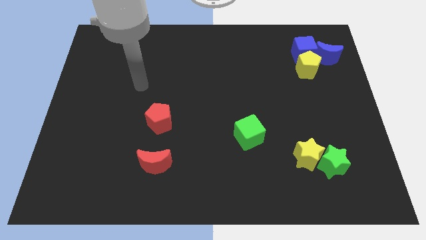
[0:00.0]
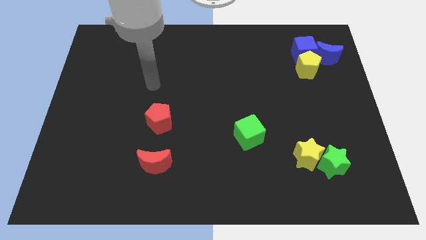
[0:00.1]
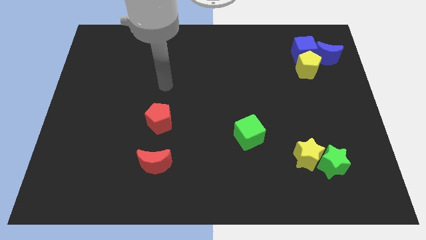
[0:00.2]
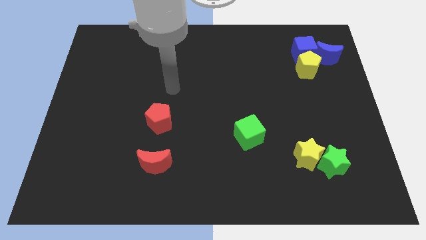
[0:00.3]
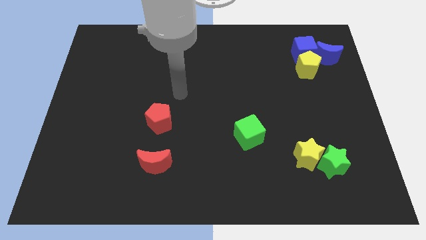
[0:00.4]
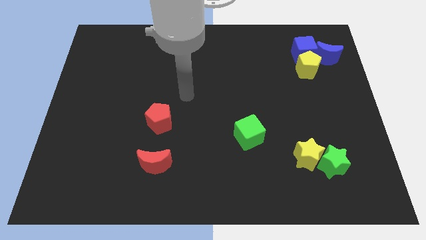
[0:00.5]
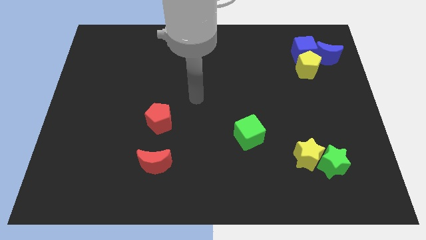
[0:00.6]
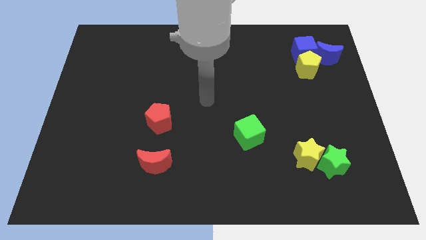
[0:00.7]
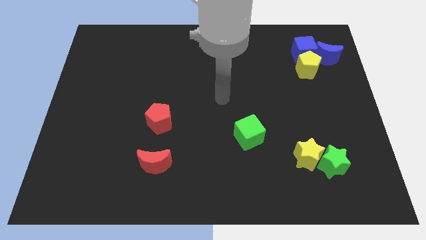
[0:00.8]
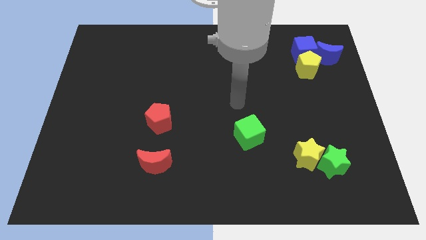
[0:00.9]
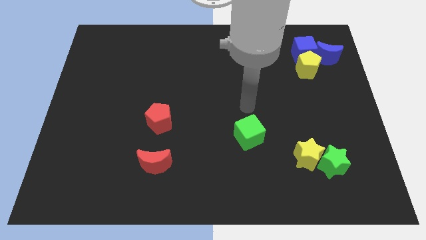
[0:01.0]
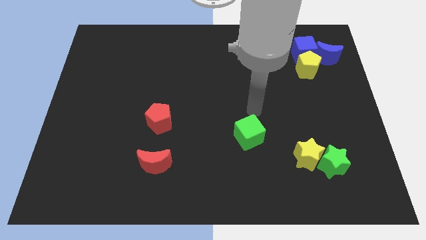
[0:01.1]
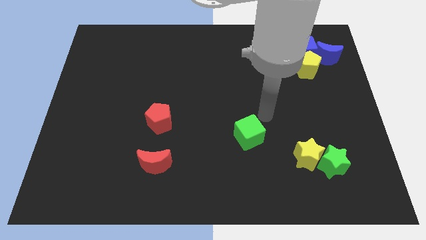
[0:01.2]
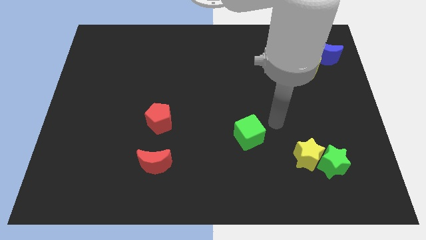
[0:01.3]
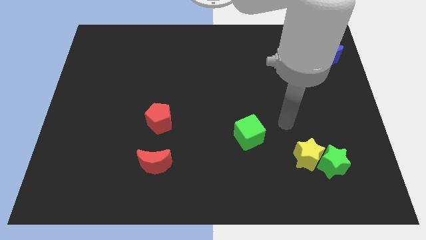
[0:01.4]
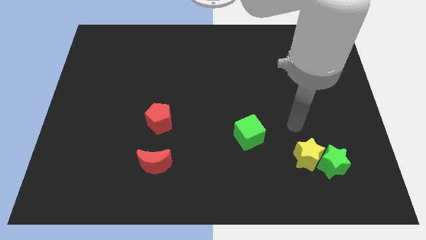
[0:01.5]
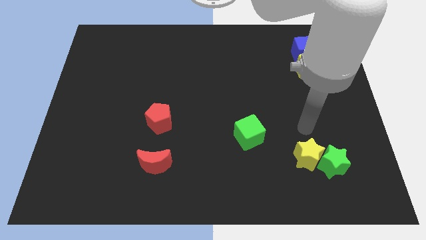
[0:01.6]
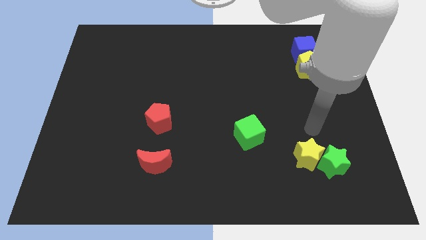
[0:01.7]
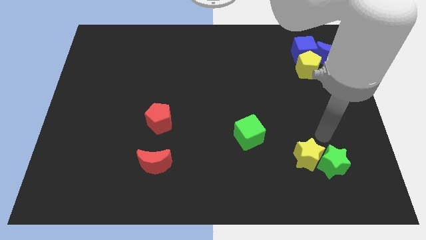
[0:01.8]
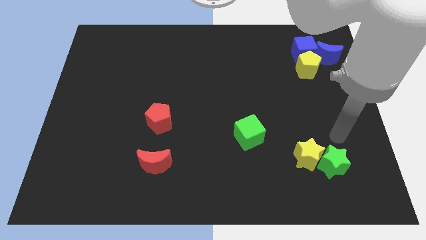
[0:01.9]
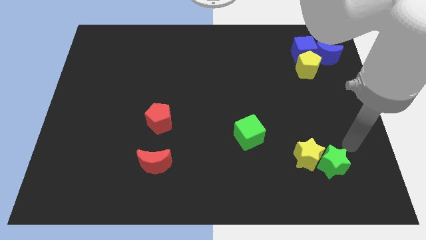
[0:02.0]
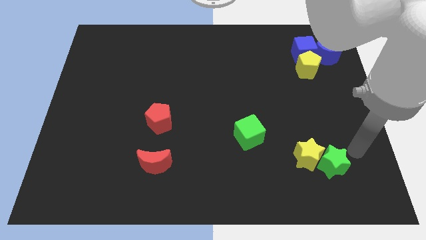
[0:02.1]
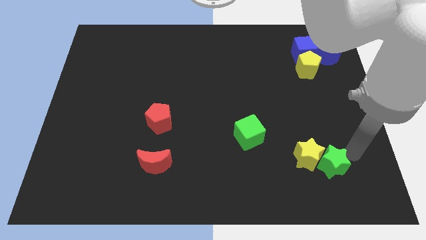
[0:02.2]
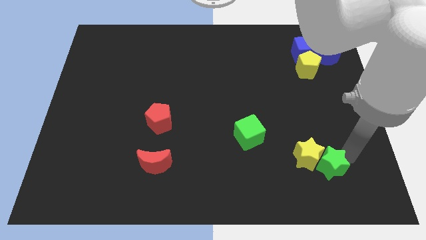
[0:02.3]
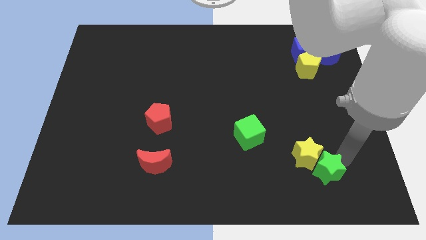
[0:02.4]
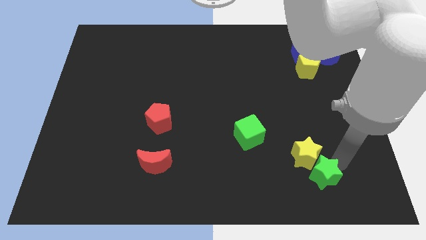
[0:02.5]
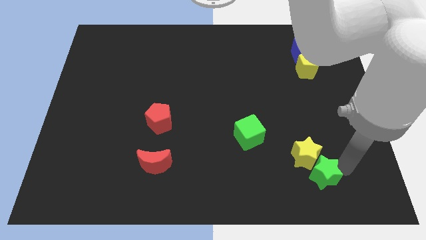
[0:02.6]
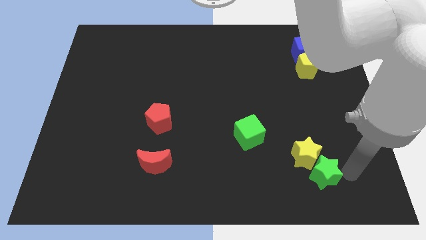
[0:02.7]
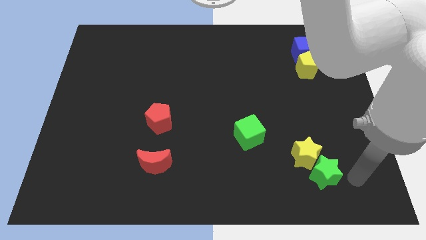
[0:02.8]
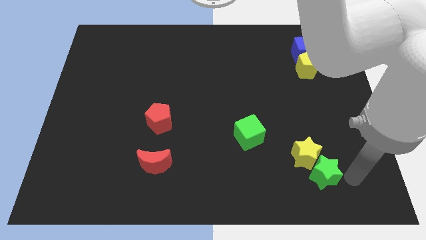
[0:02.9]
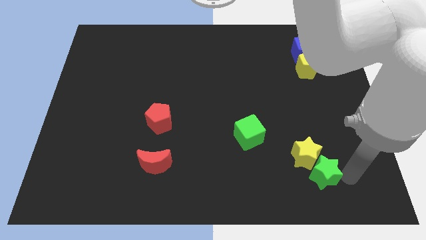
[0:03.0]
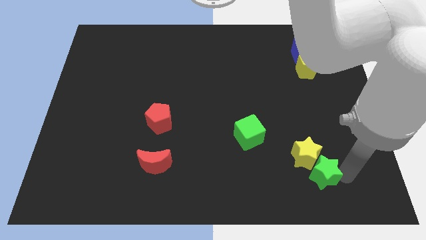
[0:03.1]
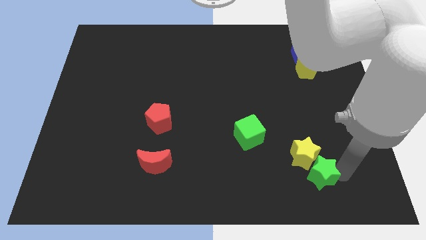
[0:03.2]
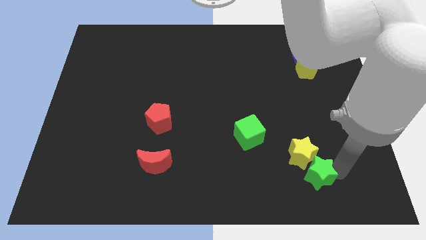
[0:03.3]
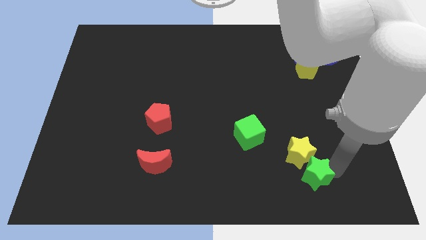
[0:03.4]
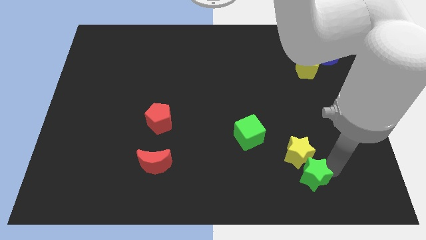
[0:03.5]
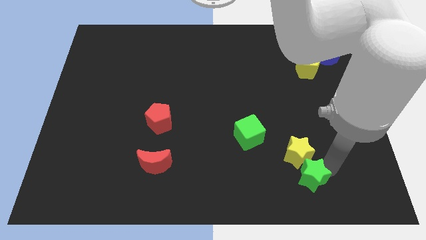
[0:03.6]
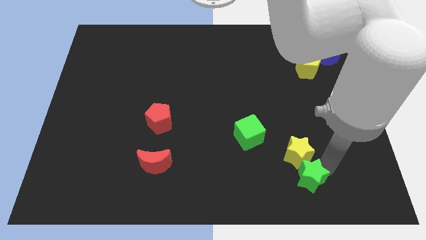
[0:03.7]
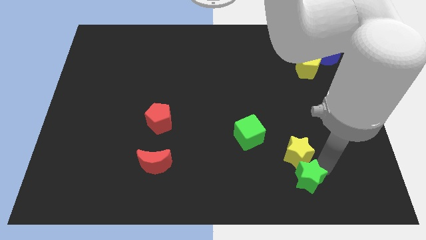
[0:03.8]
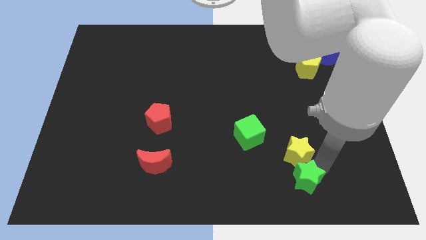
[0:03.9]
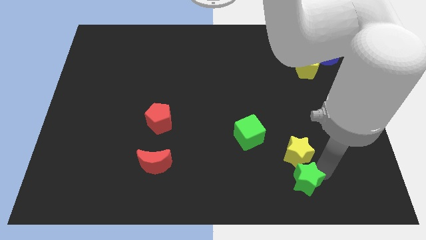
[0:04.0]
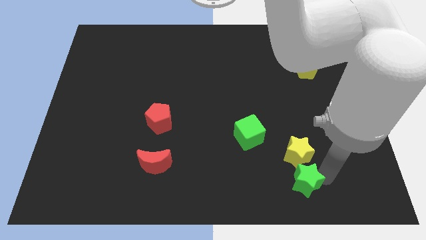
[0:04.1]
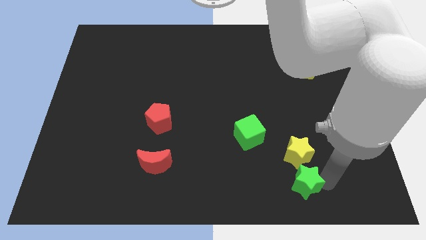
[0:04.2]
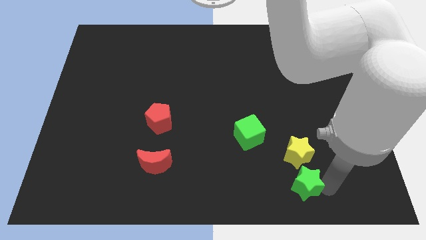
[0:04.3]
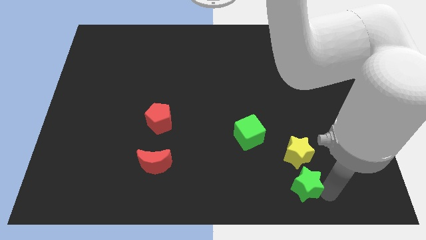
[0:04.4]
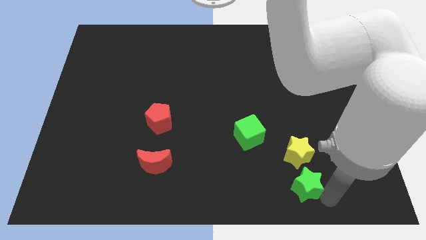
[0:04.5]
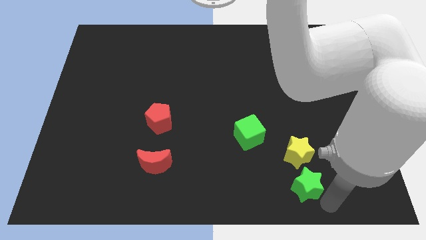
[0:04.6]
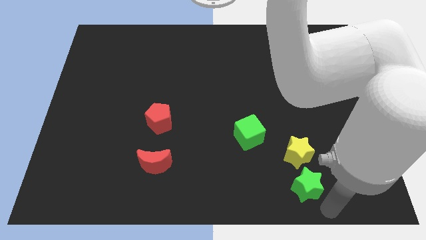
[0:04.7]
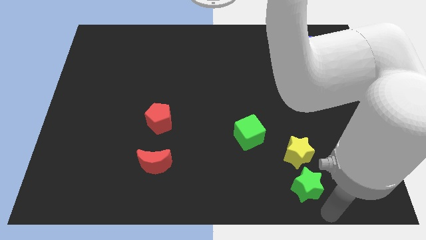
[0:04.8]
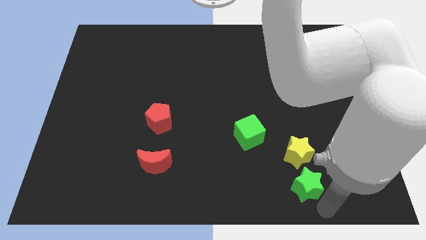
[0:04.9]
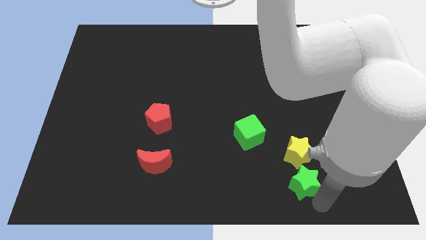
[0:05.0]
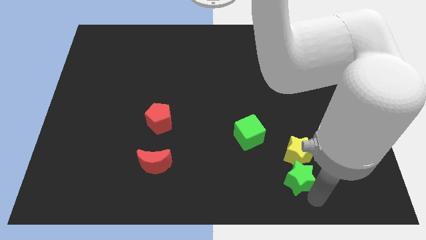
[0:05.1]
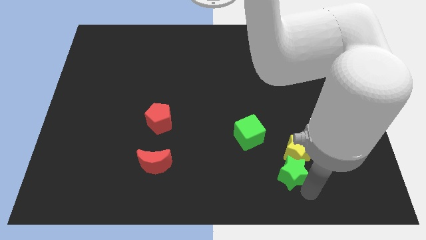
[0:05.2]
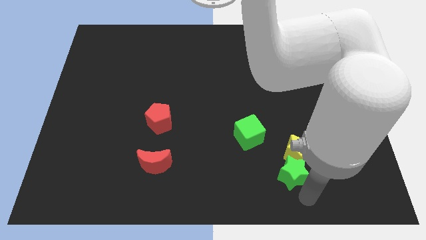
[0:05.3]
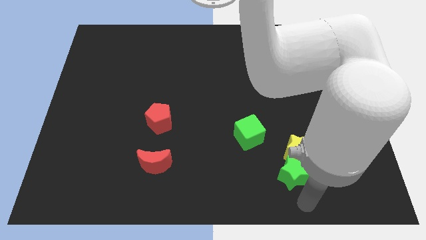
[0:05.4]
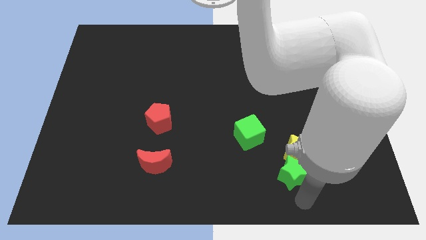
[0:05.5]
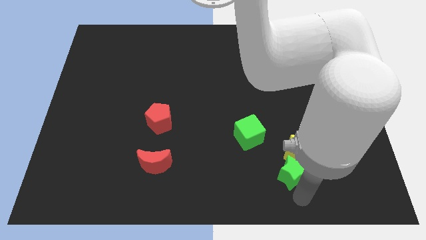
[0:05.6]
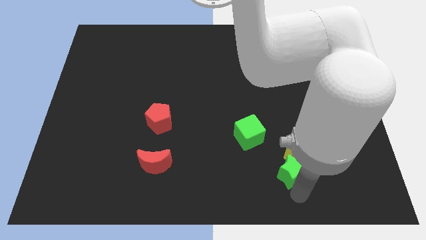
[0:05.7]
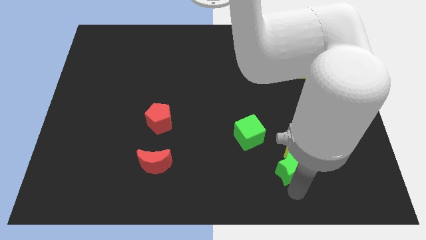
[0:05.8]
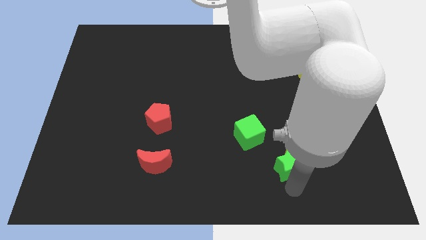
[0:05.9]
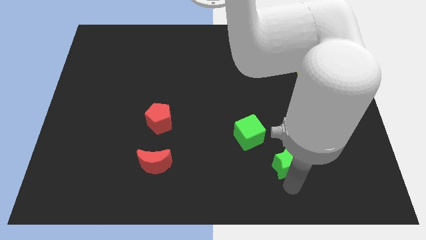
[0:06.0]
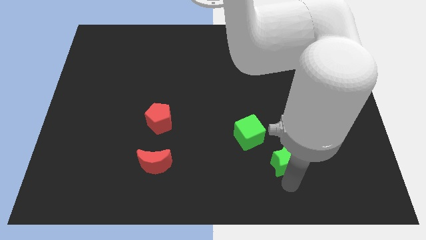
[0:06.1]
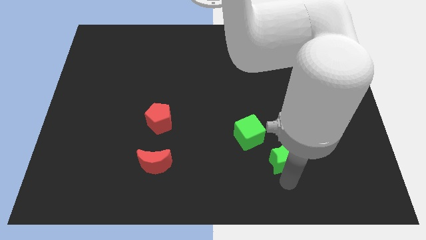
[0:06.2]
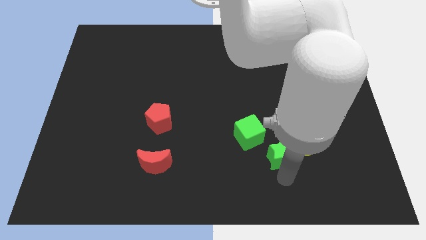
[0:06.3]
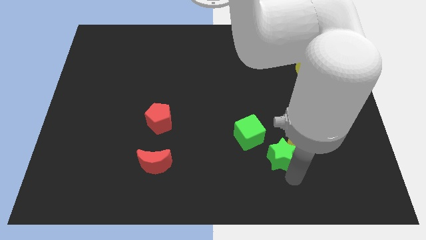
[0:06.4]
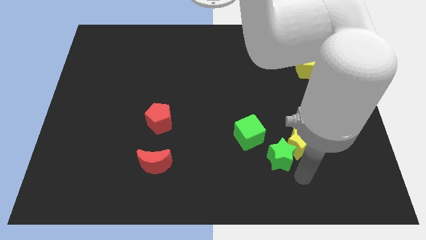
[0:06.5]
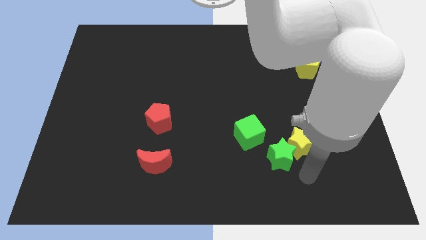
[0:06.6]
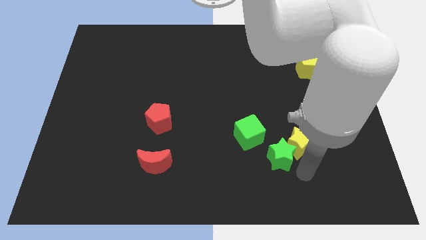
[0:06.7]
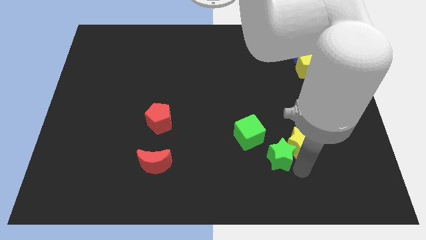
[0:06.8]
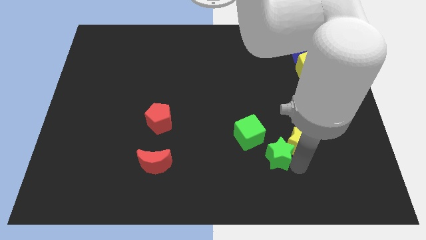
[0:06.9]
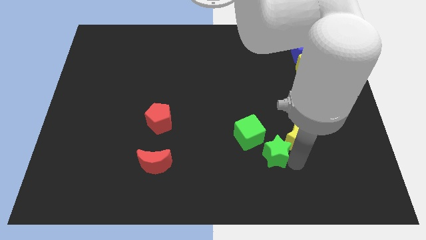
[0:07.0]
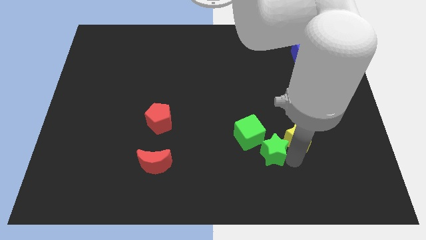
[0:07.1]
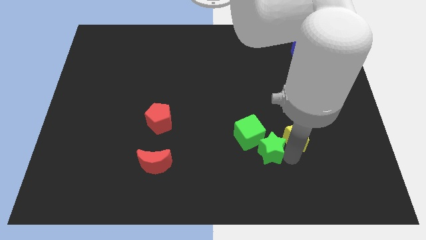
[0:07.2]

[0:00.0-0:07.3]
move the green star next to the green cube
